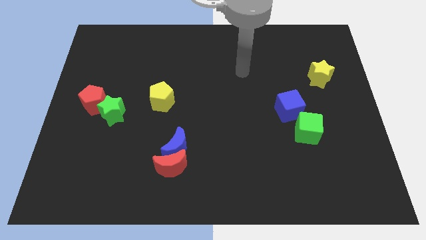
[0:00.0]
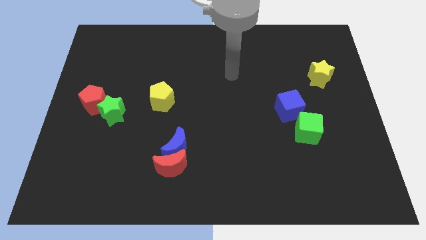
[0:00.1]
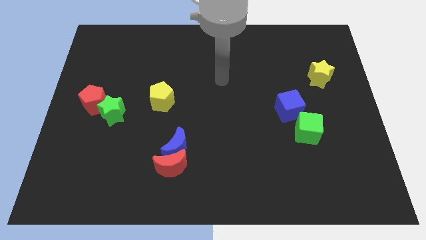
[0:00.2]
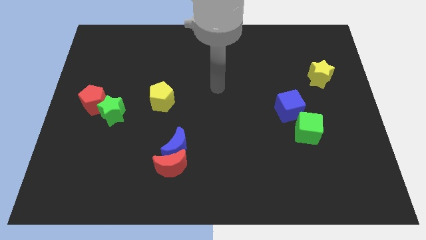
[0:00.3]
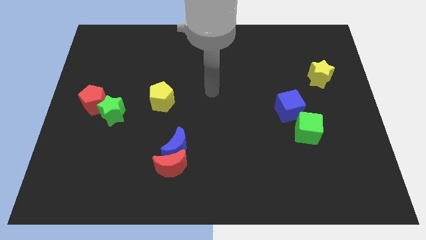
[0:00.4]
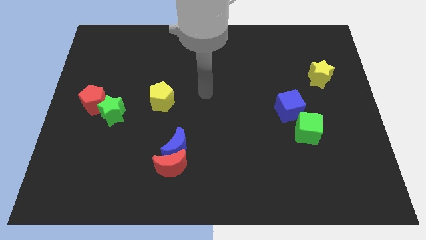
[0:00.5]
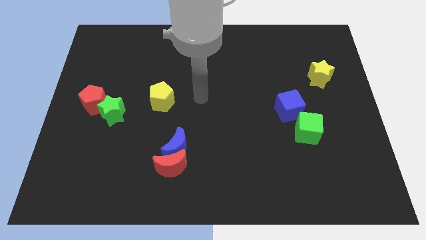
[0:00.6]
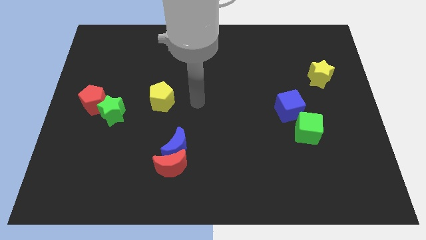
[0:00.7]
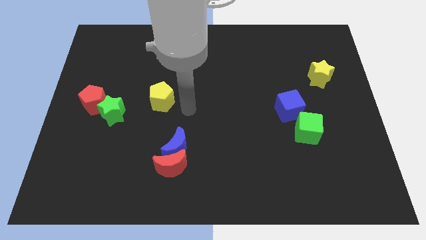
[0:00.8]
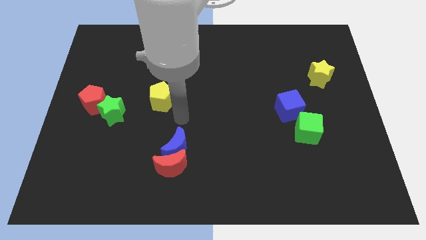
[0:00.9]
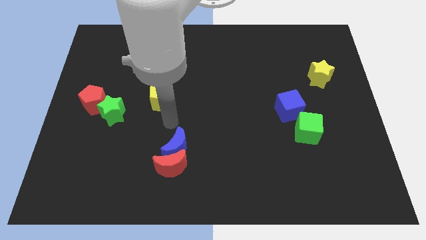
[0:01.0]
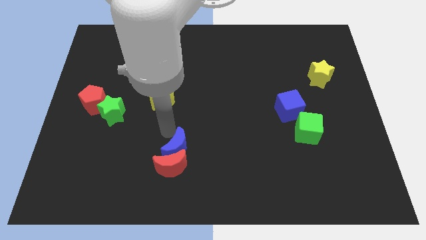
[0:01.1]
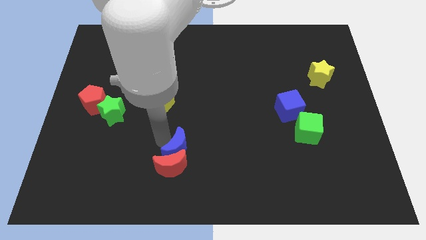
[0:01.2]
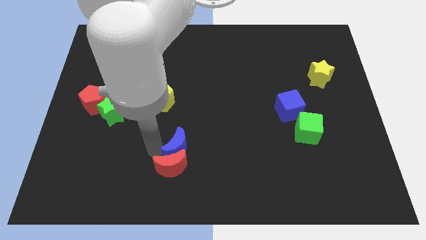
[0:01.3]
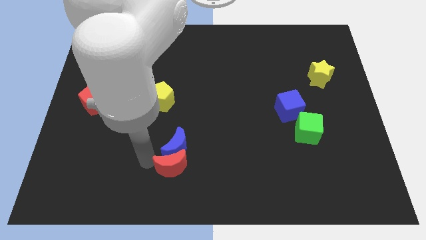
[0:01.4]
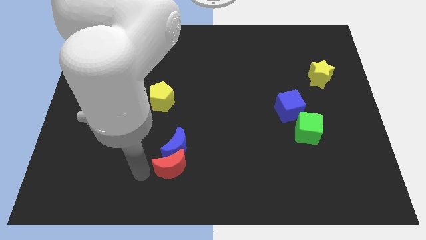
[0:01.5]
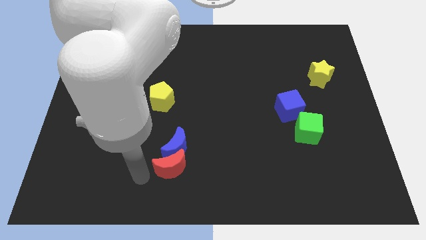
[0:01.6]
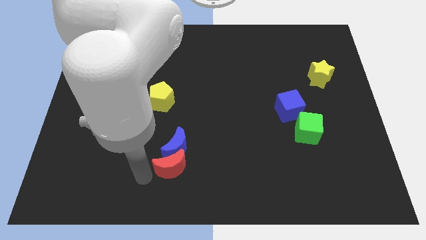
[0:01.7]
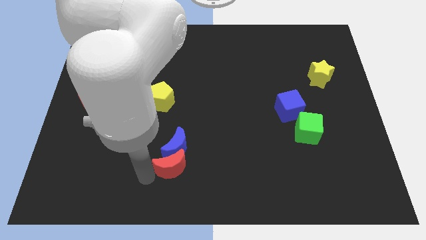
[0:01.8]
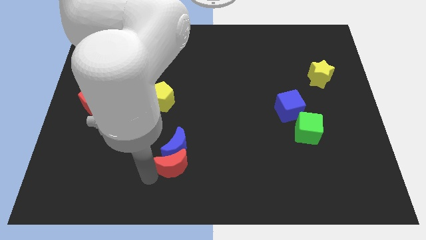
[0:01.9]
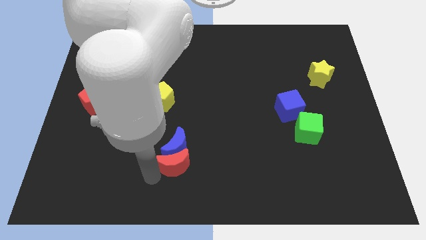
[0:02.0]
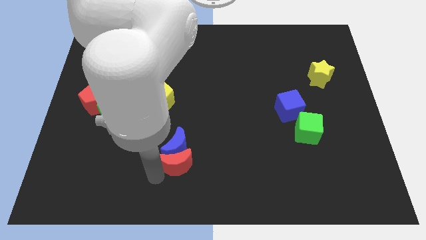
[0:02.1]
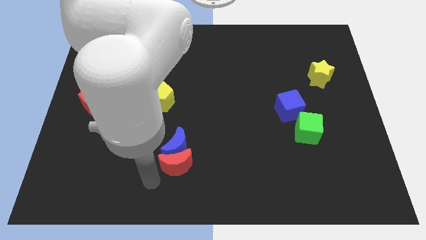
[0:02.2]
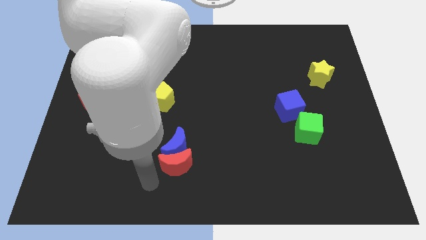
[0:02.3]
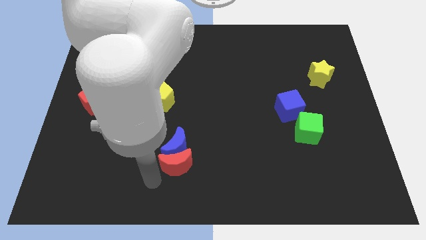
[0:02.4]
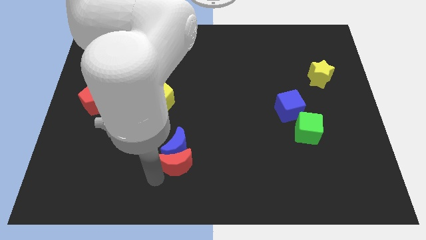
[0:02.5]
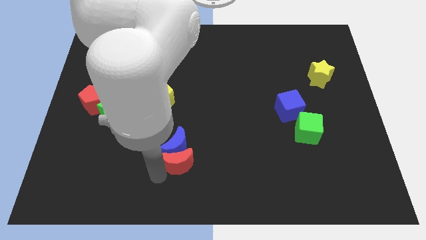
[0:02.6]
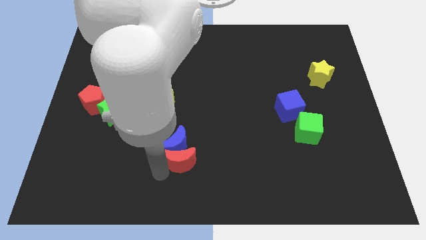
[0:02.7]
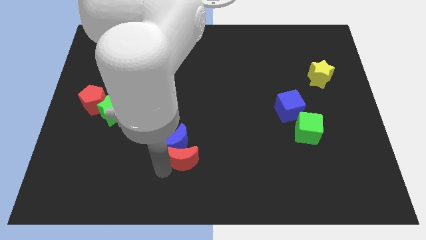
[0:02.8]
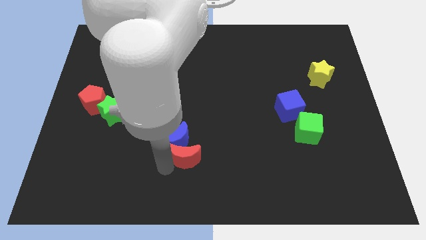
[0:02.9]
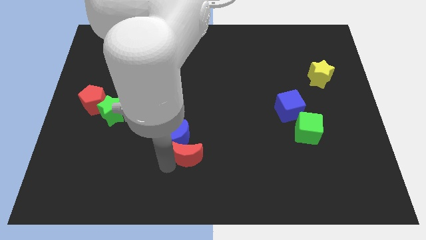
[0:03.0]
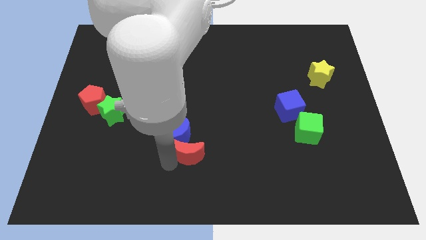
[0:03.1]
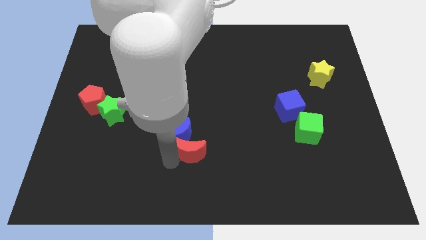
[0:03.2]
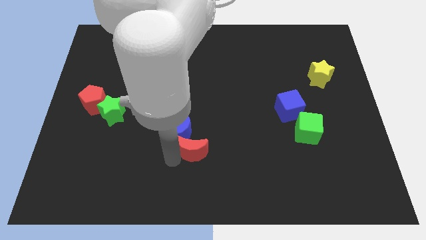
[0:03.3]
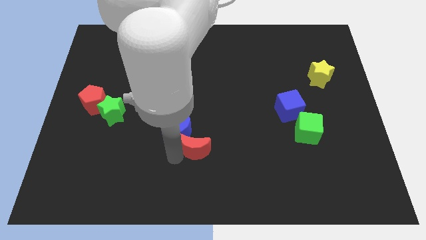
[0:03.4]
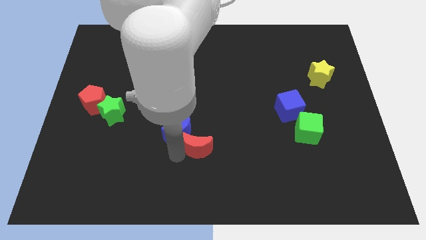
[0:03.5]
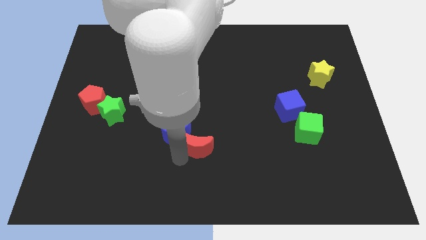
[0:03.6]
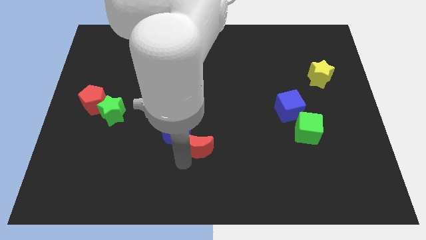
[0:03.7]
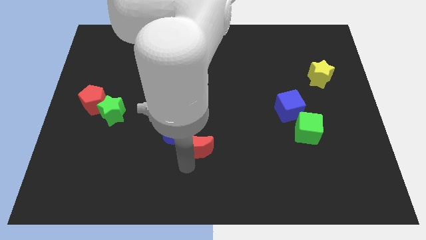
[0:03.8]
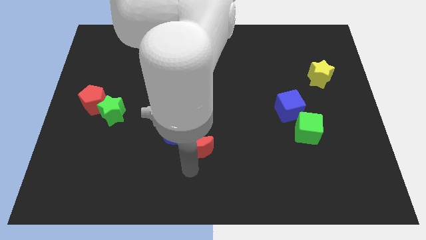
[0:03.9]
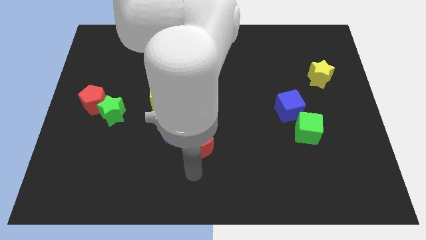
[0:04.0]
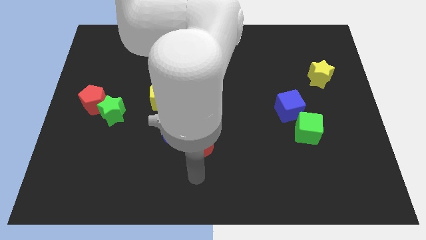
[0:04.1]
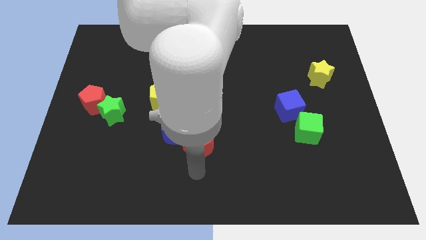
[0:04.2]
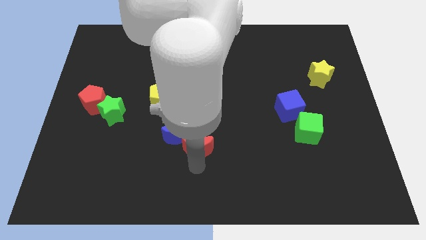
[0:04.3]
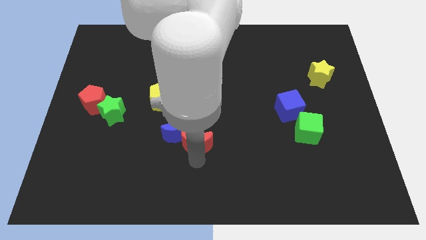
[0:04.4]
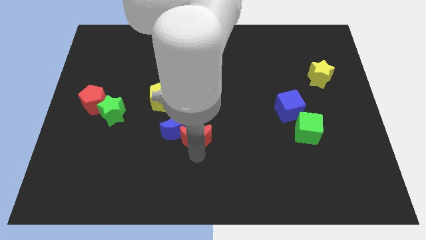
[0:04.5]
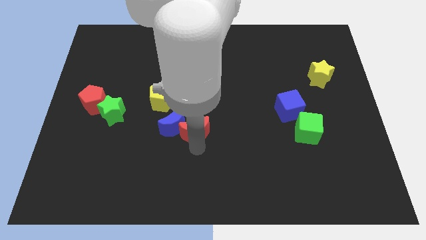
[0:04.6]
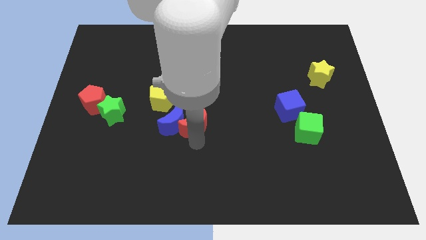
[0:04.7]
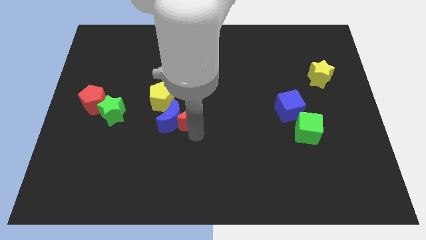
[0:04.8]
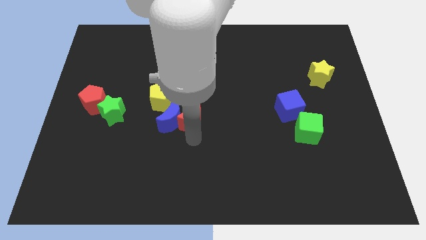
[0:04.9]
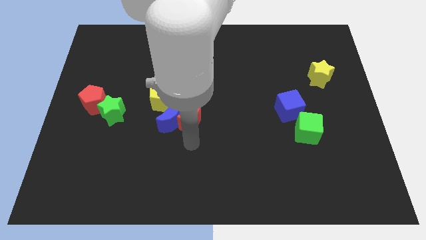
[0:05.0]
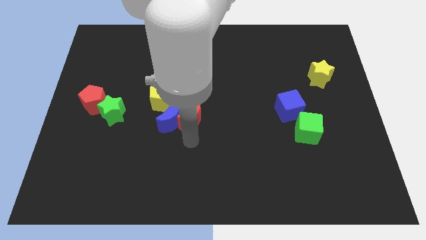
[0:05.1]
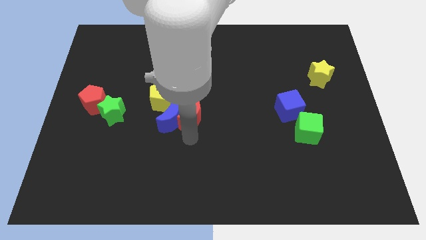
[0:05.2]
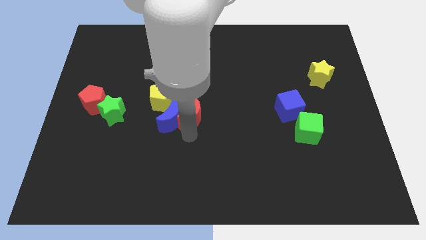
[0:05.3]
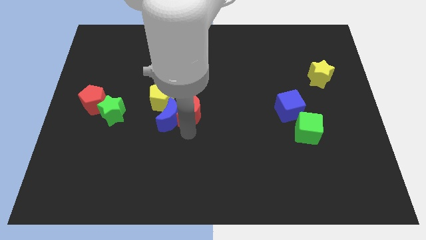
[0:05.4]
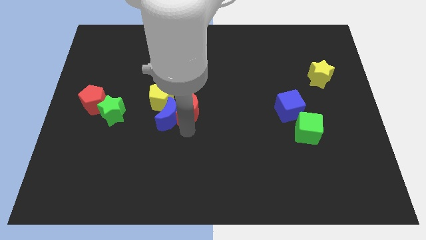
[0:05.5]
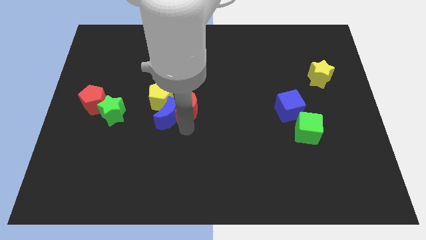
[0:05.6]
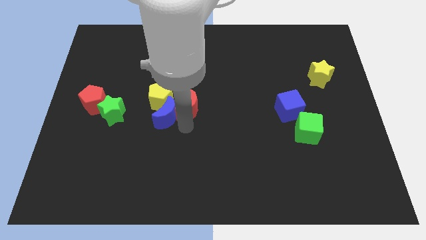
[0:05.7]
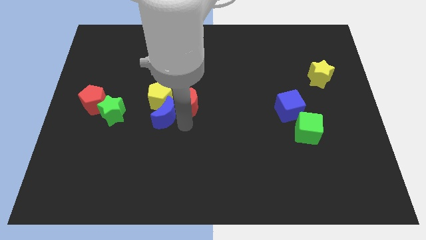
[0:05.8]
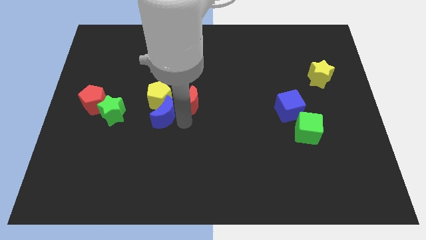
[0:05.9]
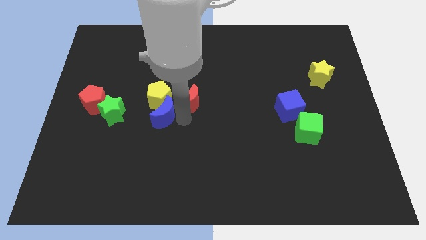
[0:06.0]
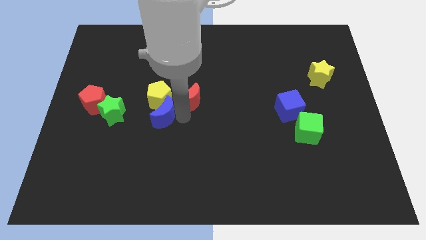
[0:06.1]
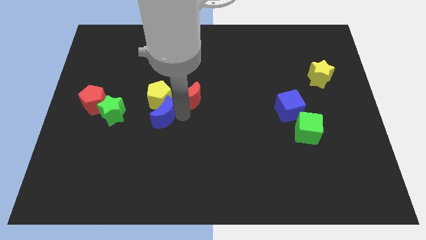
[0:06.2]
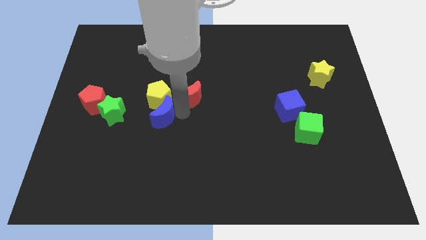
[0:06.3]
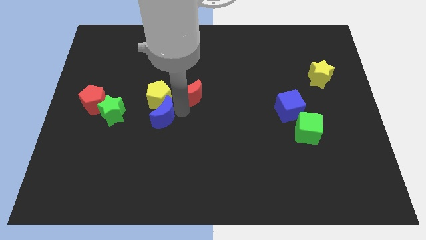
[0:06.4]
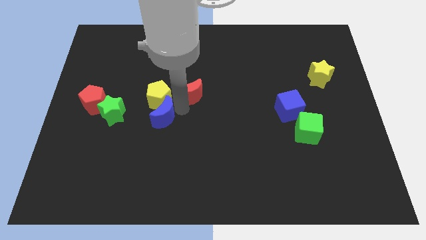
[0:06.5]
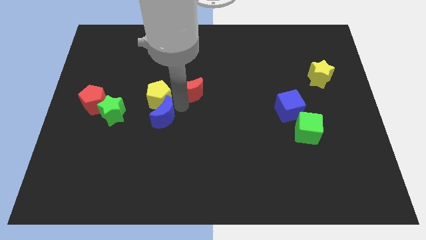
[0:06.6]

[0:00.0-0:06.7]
push the red moon upwards

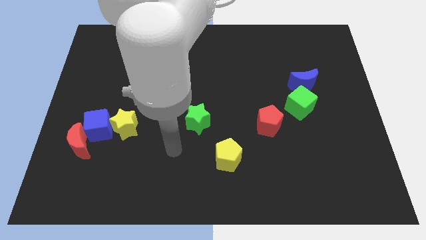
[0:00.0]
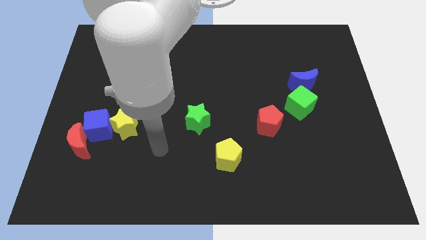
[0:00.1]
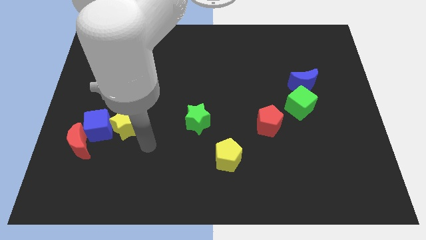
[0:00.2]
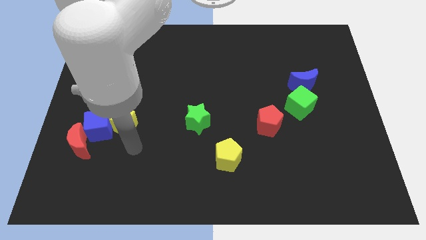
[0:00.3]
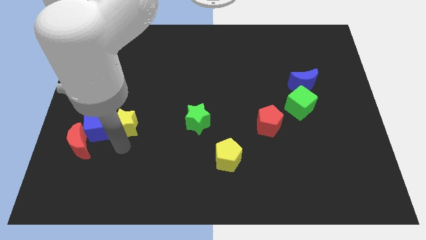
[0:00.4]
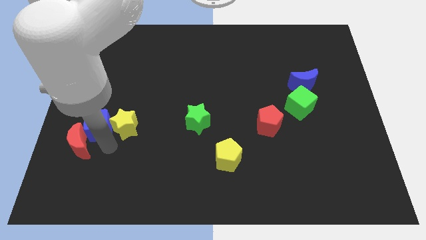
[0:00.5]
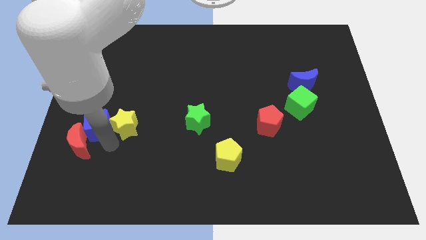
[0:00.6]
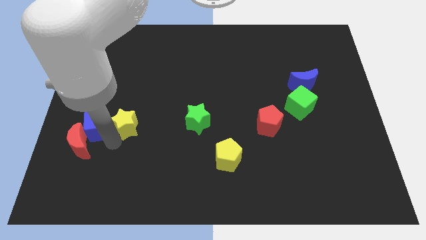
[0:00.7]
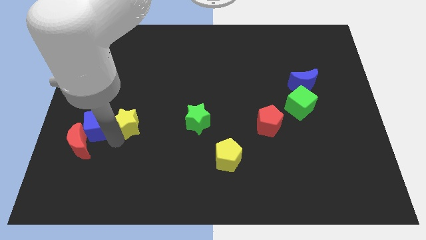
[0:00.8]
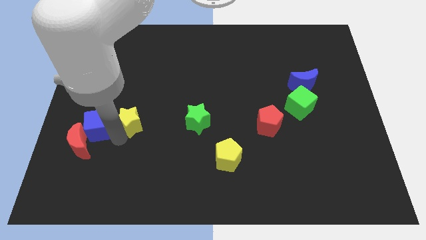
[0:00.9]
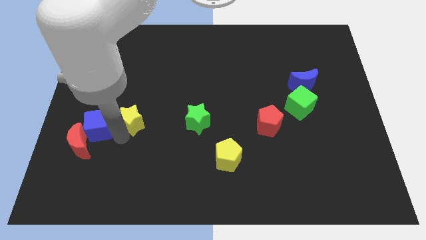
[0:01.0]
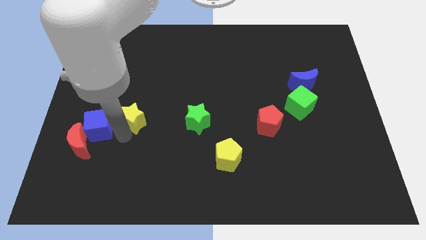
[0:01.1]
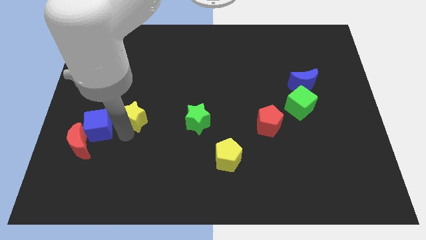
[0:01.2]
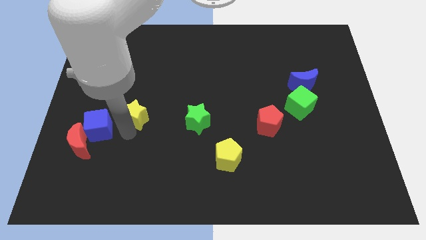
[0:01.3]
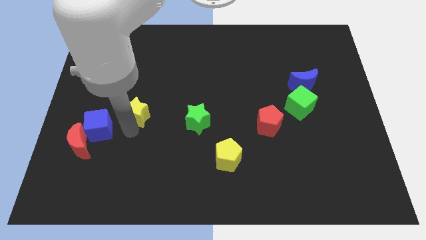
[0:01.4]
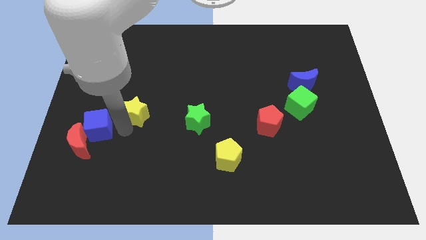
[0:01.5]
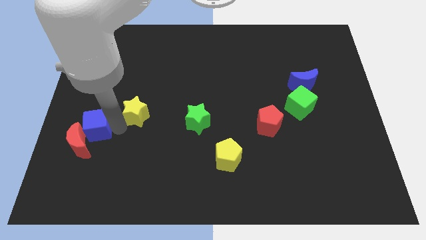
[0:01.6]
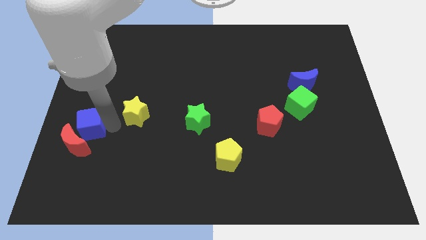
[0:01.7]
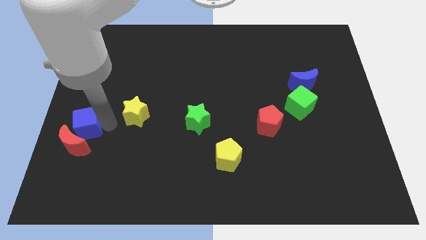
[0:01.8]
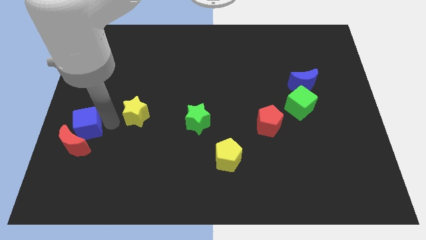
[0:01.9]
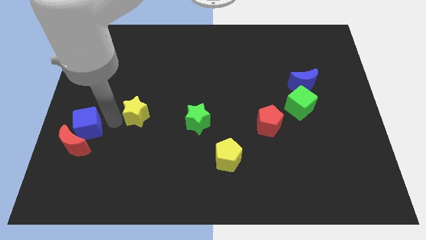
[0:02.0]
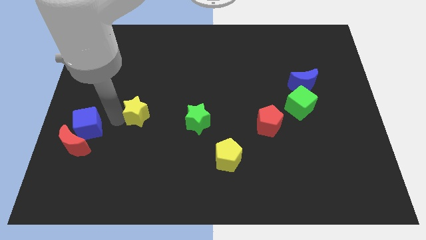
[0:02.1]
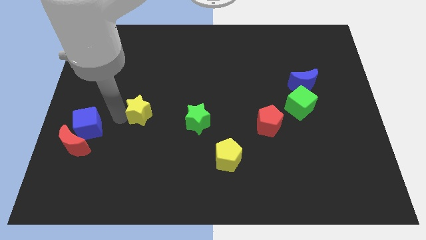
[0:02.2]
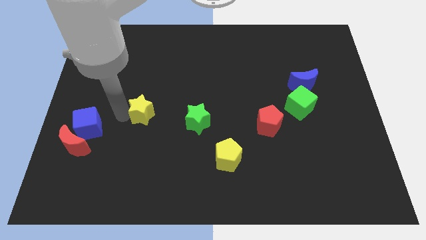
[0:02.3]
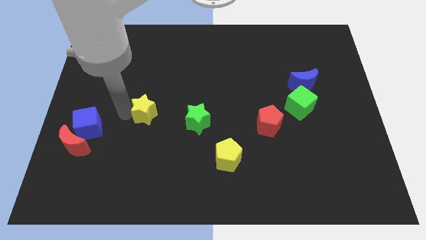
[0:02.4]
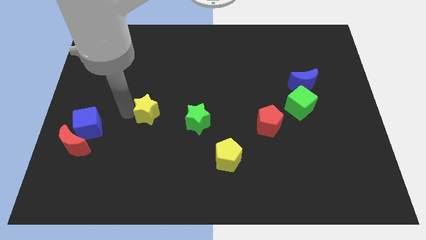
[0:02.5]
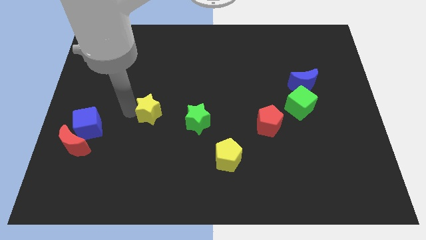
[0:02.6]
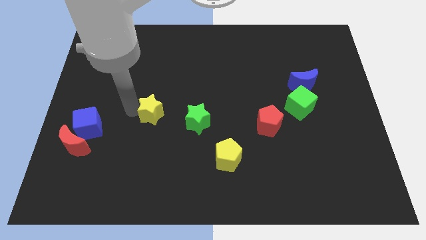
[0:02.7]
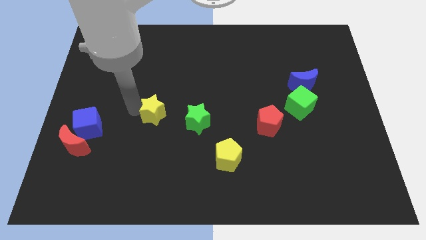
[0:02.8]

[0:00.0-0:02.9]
move the yellow star upwards and then to the right a little bit
